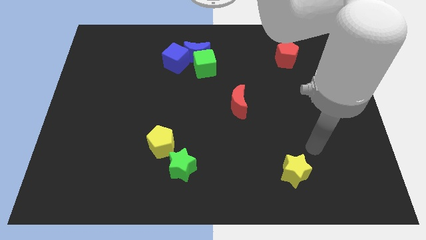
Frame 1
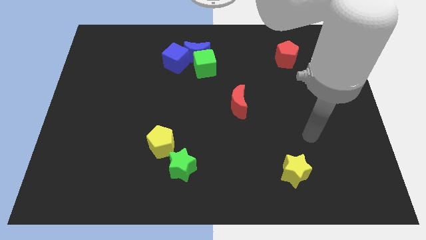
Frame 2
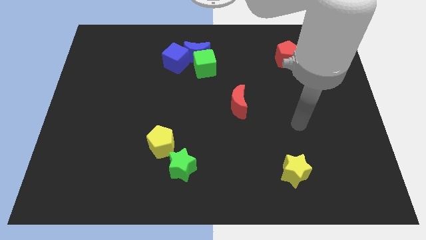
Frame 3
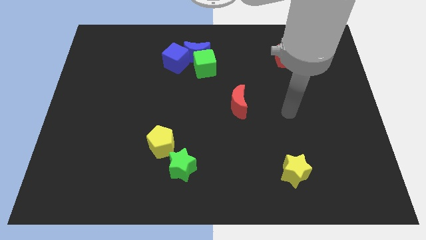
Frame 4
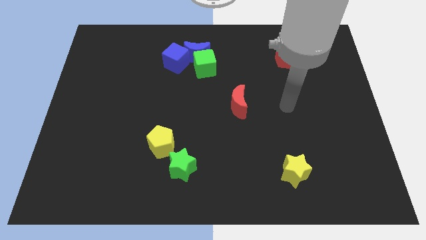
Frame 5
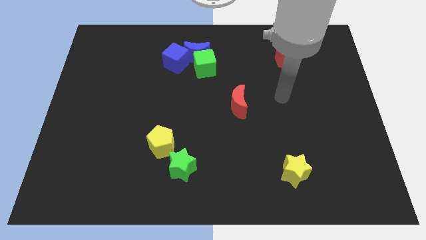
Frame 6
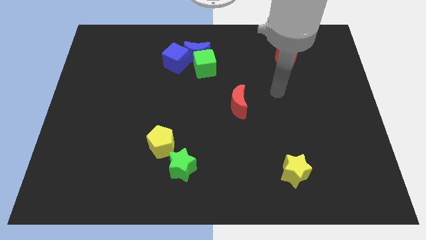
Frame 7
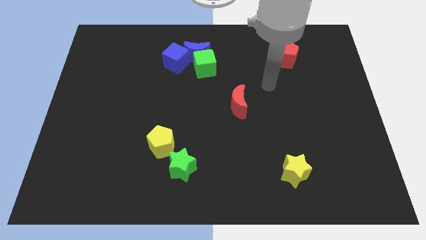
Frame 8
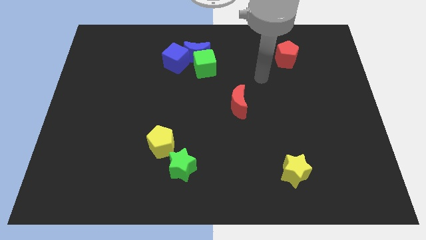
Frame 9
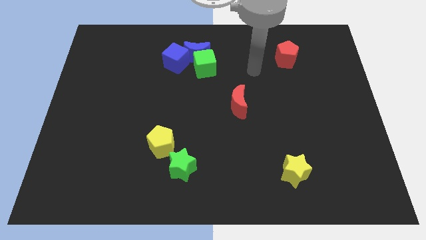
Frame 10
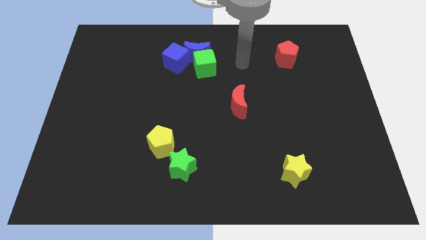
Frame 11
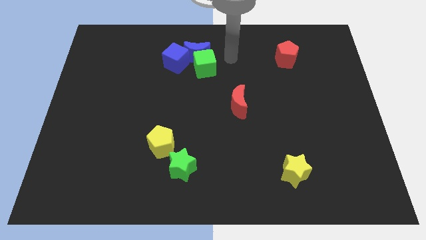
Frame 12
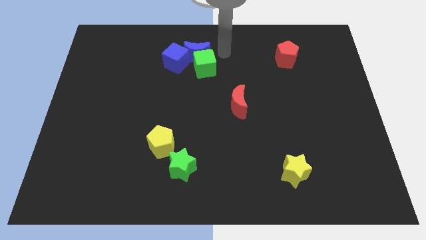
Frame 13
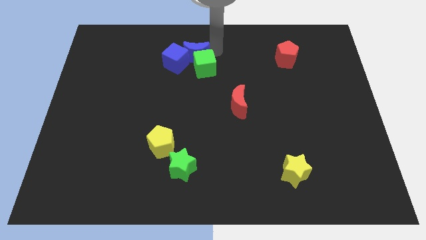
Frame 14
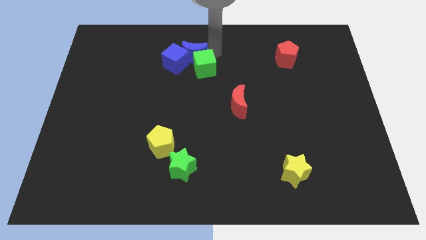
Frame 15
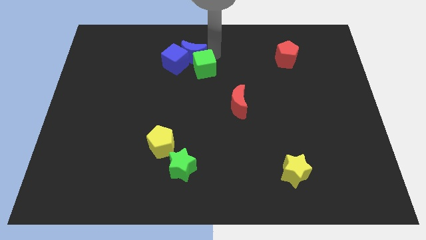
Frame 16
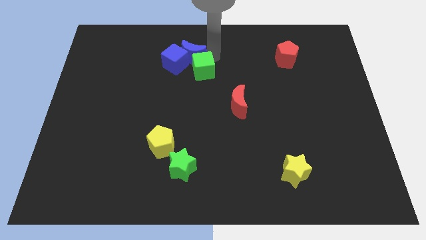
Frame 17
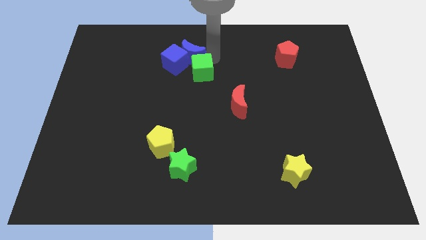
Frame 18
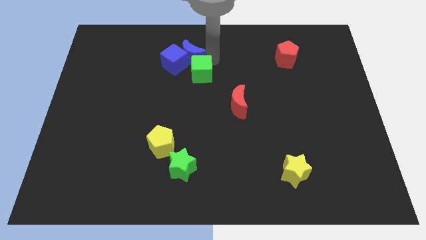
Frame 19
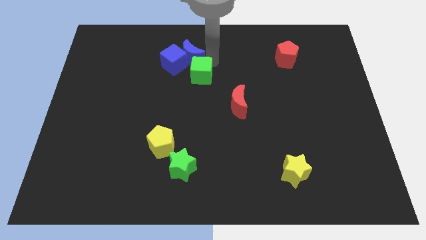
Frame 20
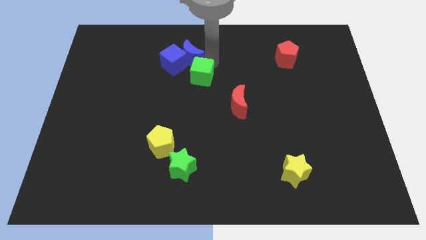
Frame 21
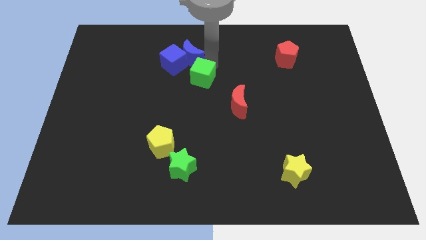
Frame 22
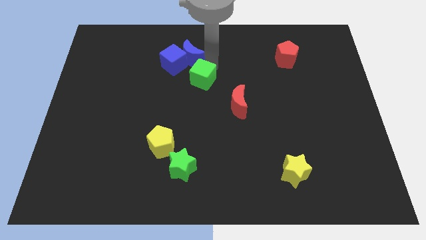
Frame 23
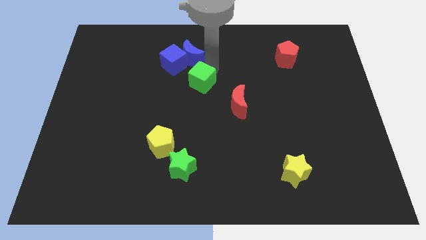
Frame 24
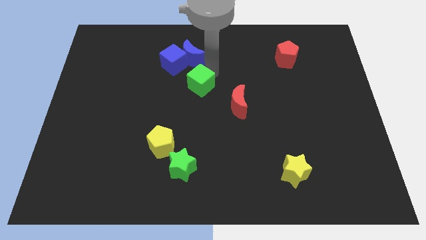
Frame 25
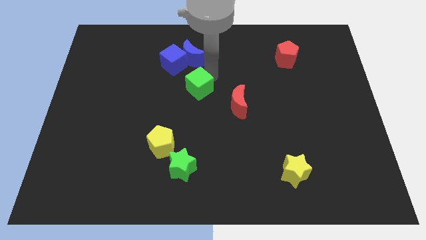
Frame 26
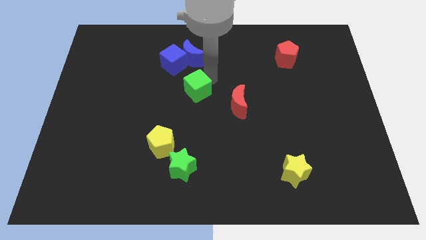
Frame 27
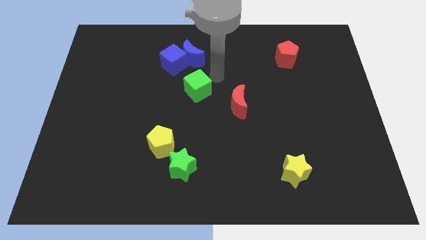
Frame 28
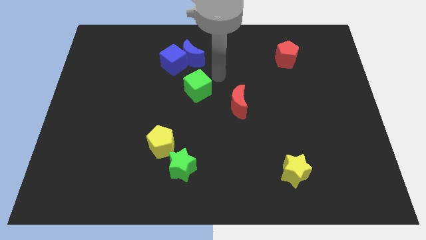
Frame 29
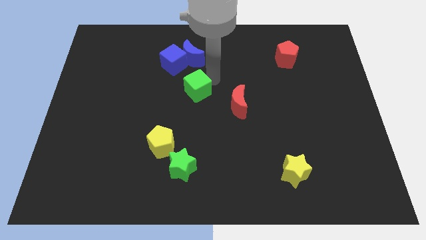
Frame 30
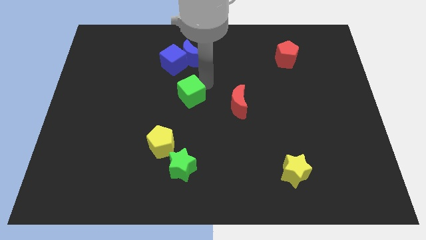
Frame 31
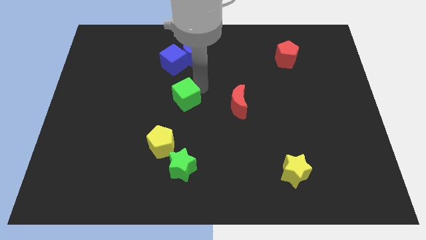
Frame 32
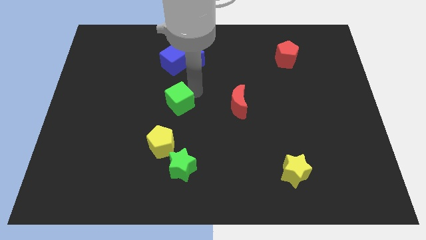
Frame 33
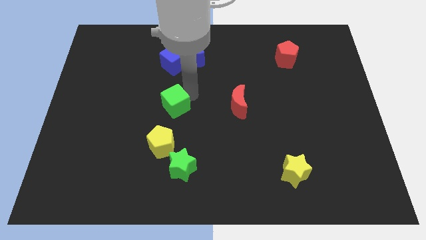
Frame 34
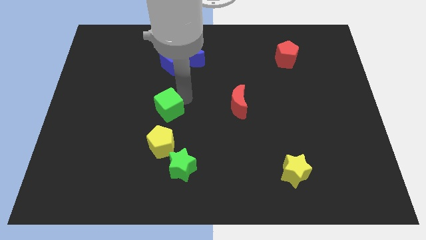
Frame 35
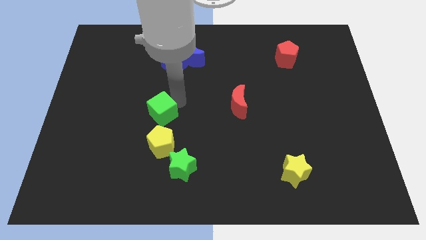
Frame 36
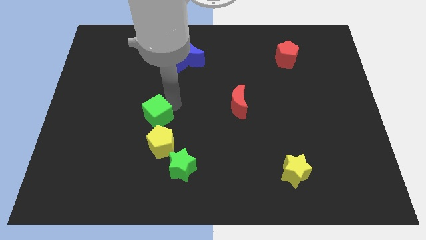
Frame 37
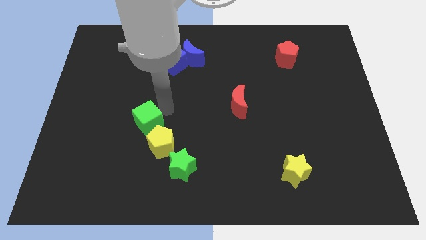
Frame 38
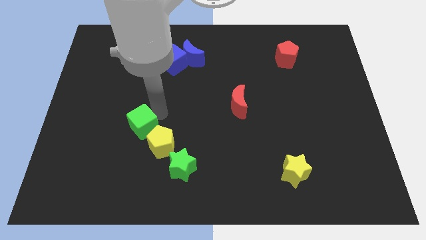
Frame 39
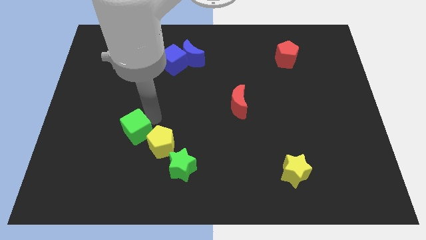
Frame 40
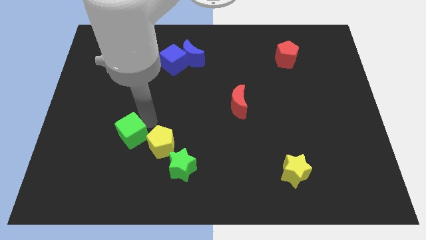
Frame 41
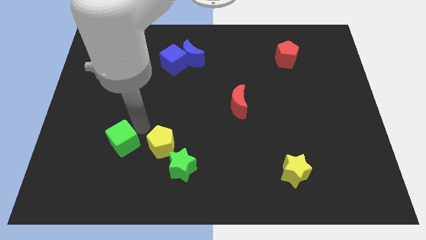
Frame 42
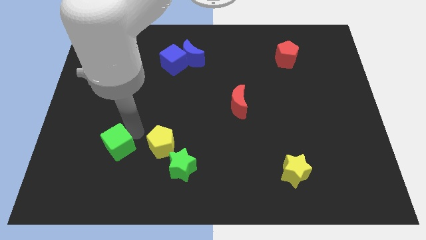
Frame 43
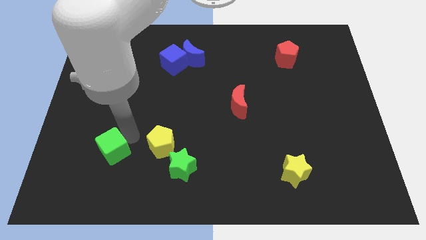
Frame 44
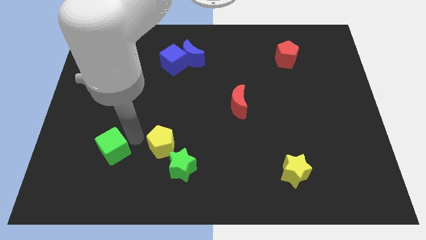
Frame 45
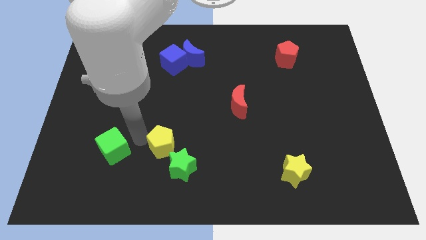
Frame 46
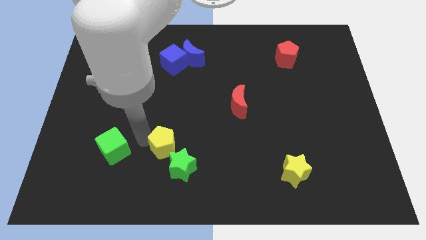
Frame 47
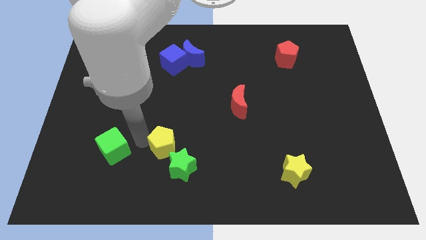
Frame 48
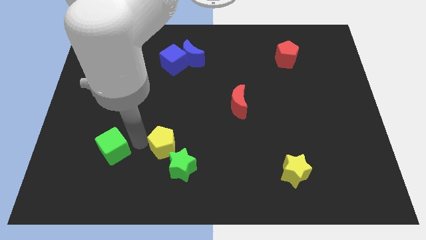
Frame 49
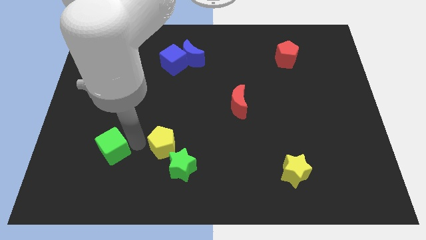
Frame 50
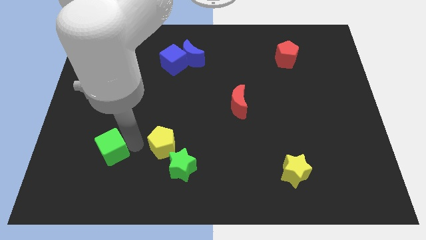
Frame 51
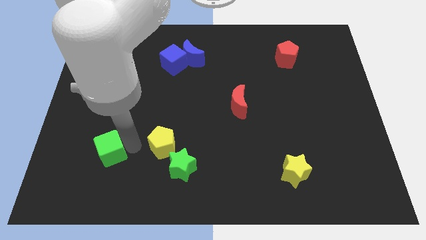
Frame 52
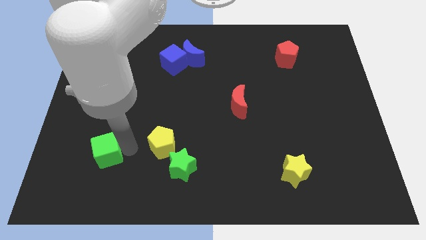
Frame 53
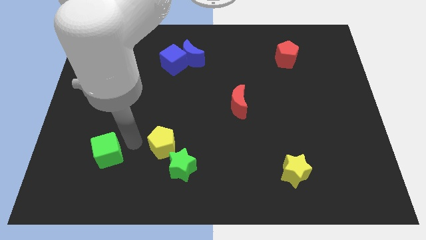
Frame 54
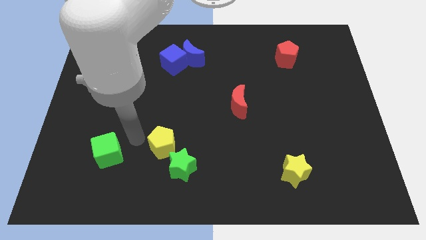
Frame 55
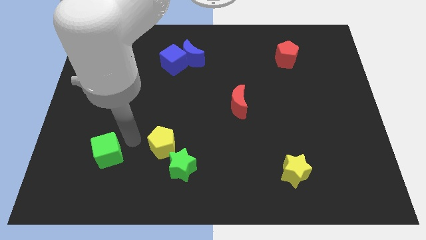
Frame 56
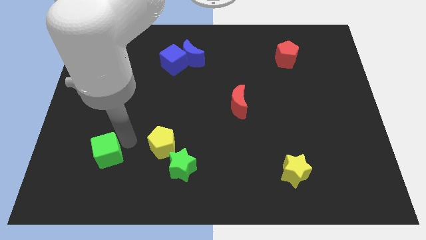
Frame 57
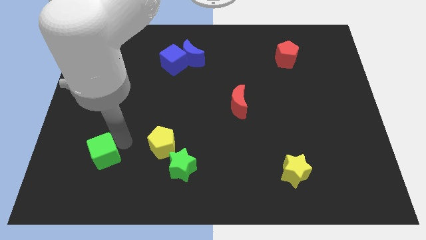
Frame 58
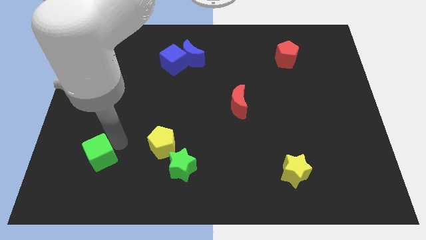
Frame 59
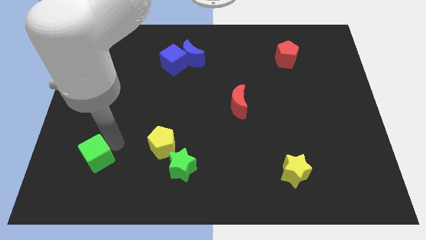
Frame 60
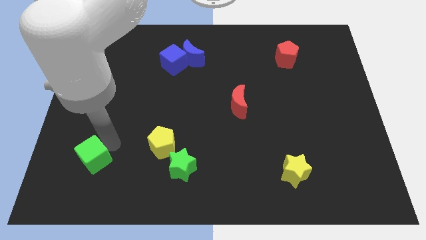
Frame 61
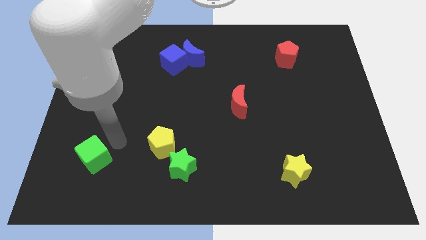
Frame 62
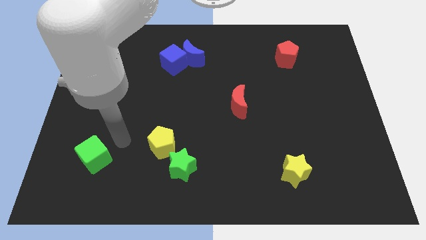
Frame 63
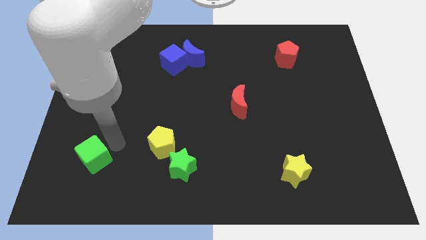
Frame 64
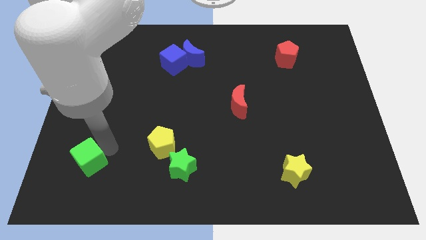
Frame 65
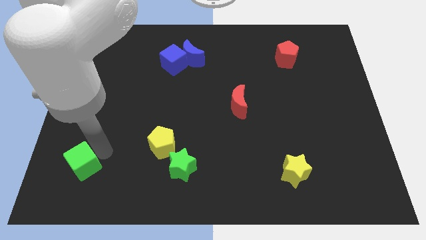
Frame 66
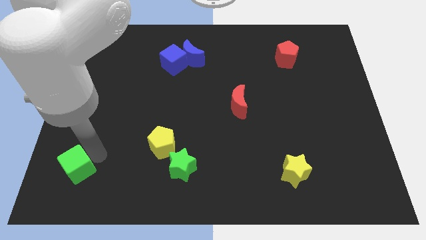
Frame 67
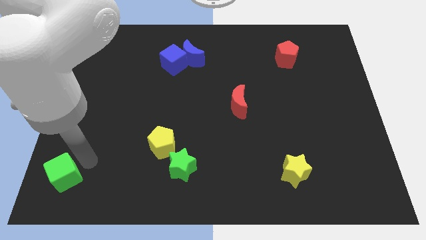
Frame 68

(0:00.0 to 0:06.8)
move the green cube to the bottom left
